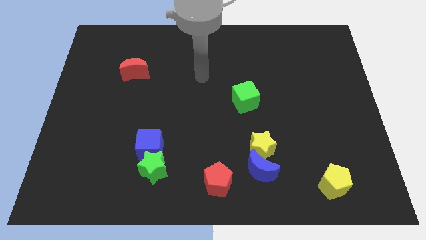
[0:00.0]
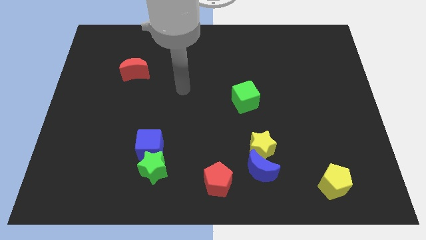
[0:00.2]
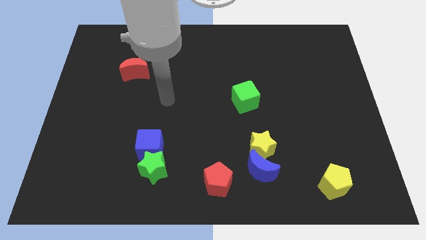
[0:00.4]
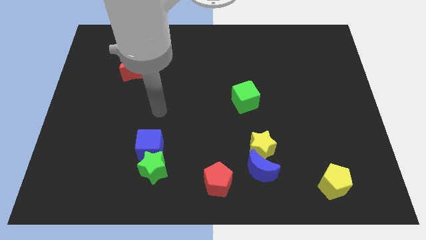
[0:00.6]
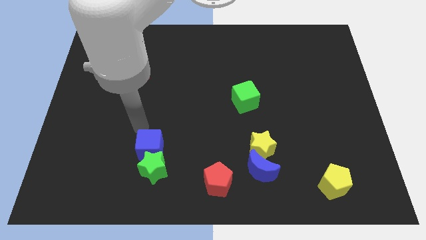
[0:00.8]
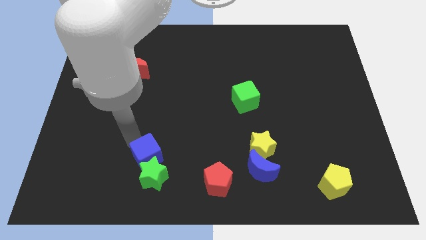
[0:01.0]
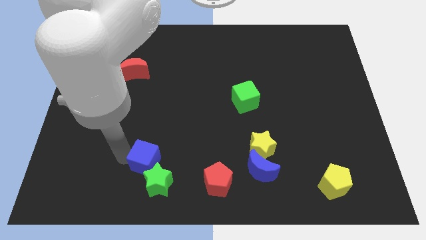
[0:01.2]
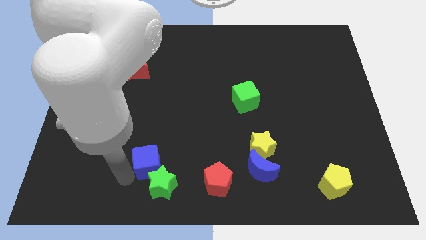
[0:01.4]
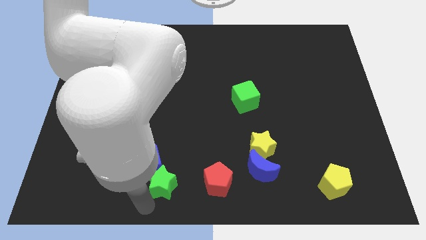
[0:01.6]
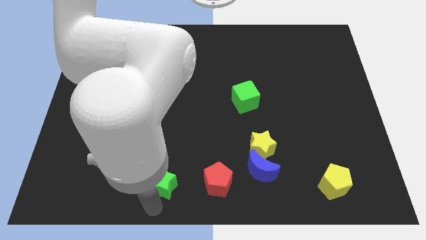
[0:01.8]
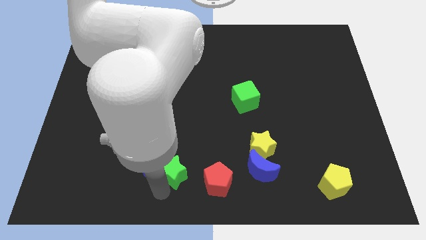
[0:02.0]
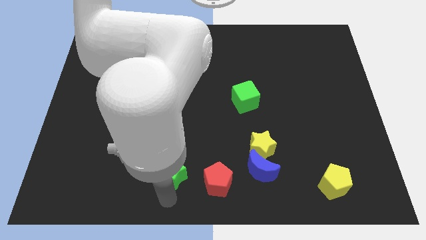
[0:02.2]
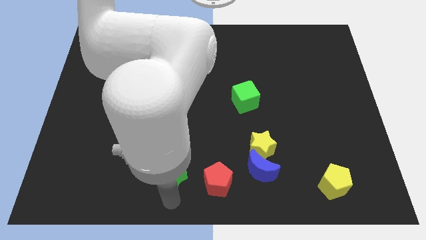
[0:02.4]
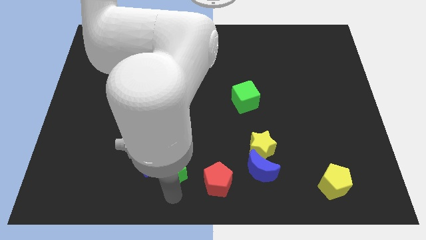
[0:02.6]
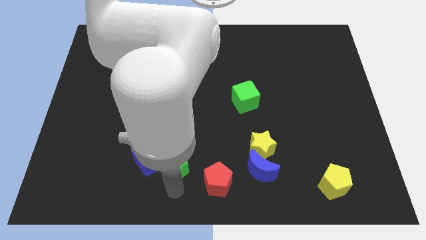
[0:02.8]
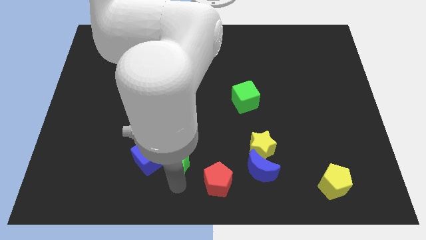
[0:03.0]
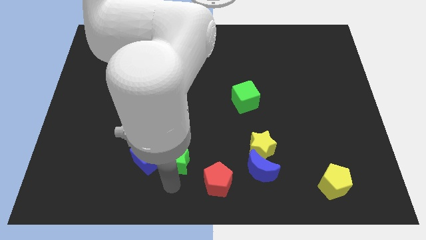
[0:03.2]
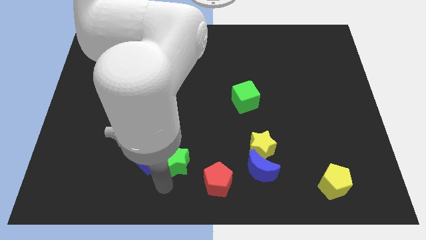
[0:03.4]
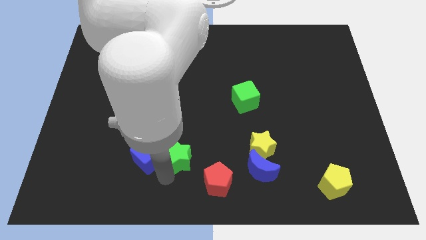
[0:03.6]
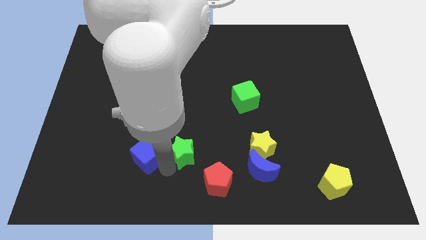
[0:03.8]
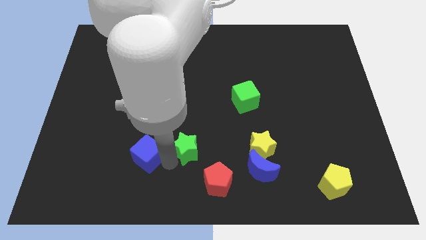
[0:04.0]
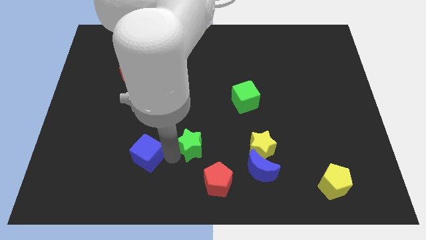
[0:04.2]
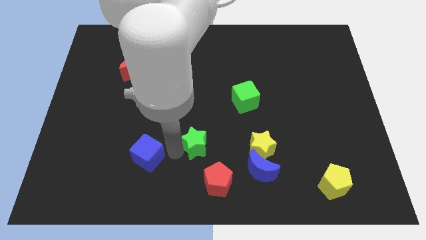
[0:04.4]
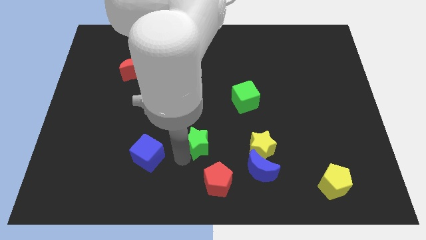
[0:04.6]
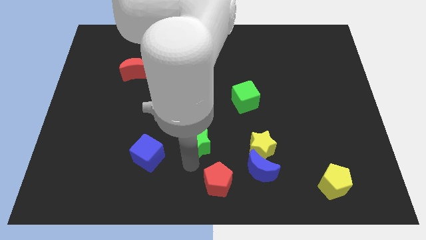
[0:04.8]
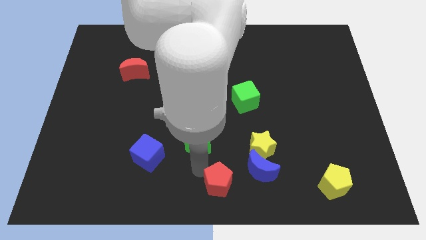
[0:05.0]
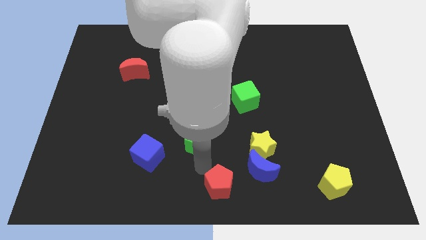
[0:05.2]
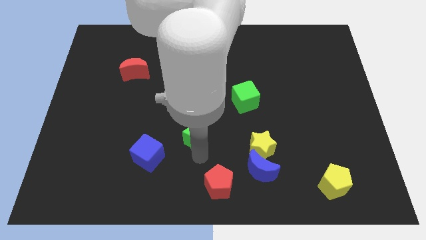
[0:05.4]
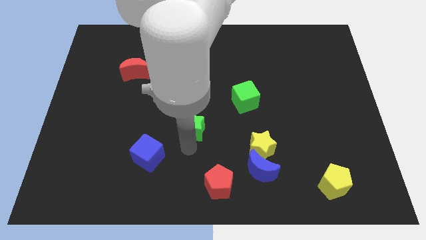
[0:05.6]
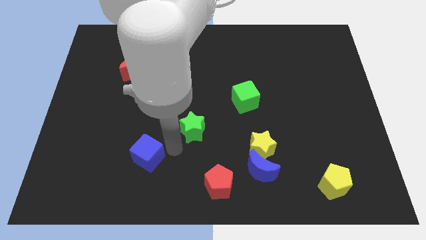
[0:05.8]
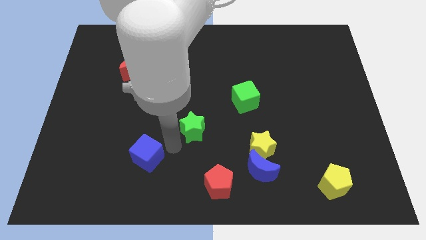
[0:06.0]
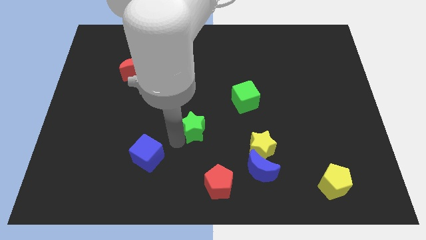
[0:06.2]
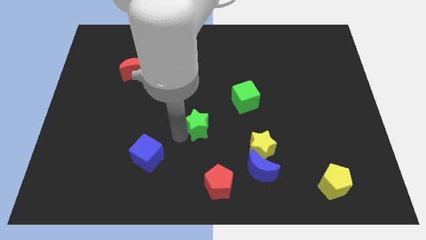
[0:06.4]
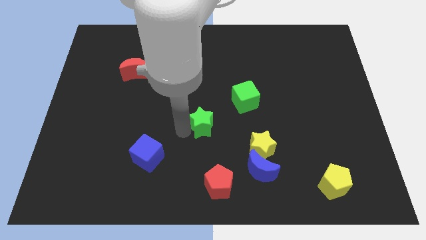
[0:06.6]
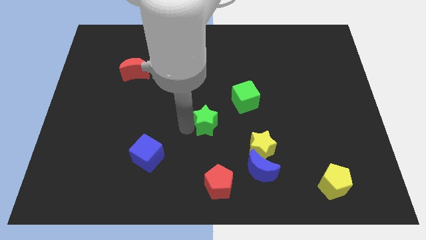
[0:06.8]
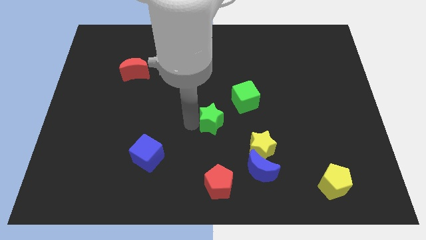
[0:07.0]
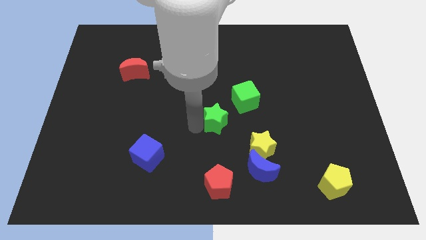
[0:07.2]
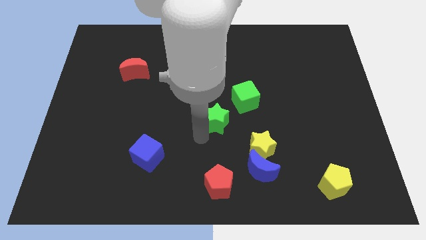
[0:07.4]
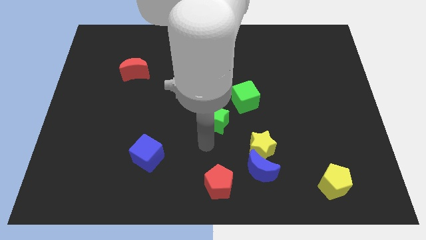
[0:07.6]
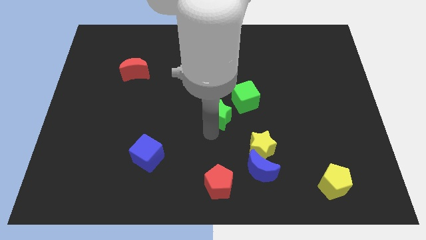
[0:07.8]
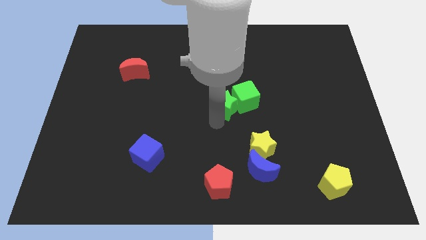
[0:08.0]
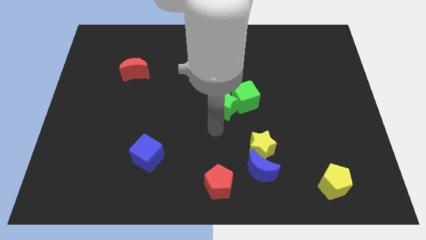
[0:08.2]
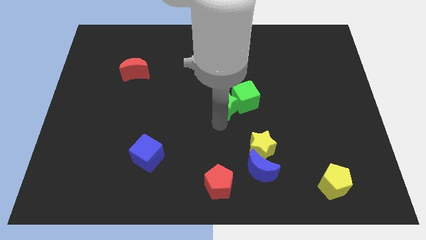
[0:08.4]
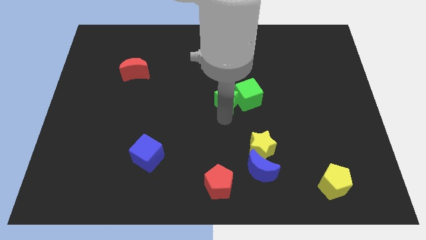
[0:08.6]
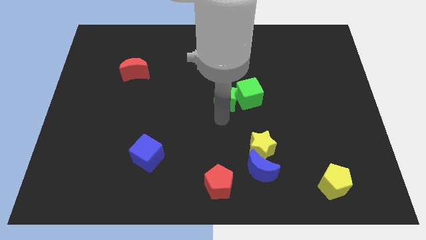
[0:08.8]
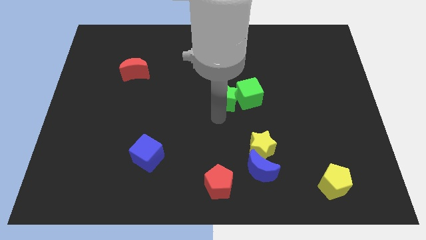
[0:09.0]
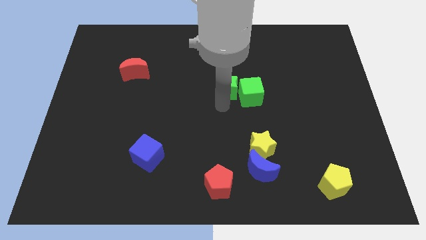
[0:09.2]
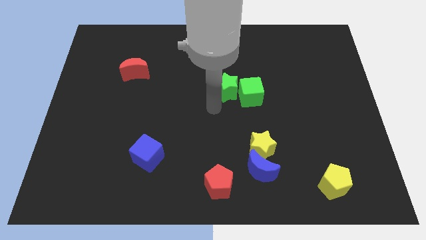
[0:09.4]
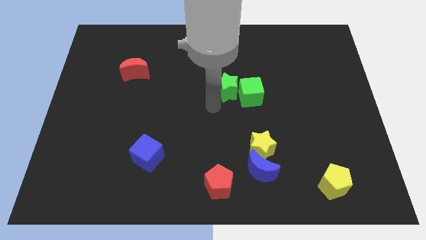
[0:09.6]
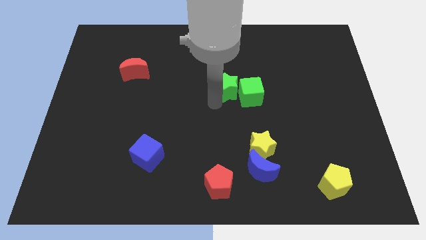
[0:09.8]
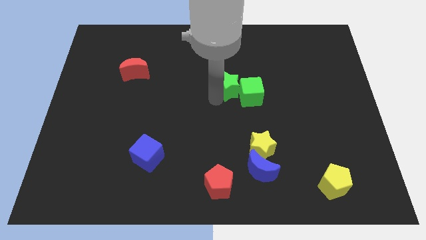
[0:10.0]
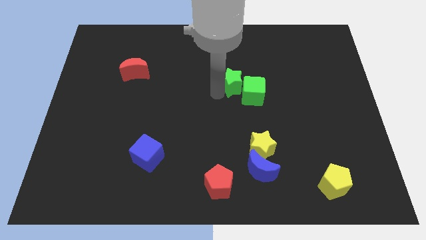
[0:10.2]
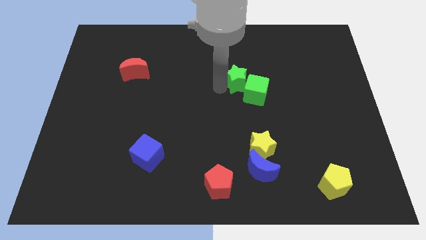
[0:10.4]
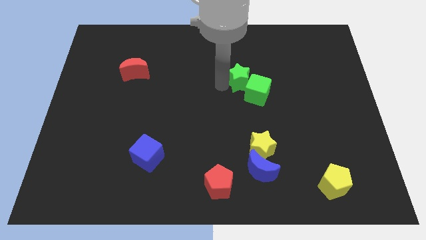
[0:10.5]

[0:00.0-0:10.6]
slide the green star to the top of the green cube

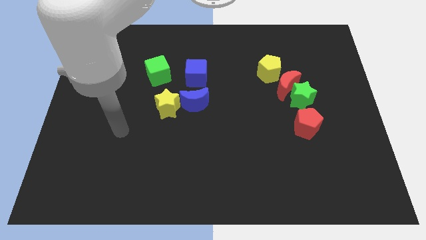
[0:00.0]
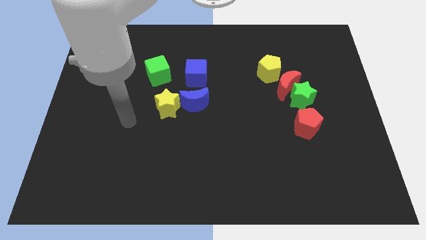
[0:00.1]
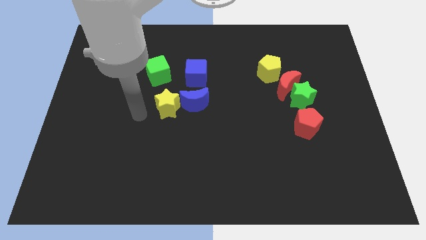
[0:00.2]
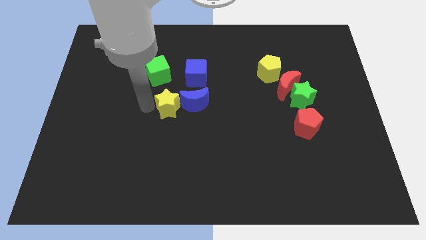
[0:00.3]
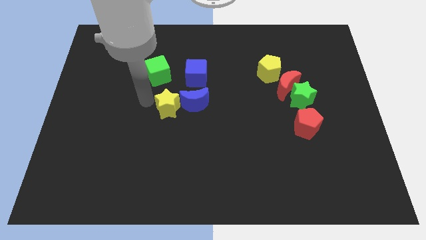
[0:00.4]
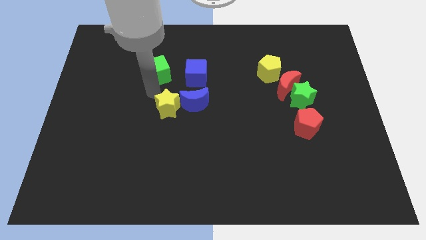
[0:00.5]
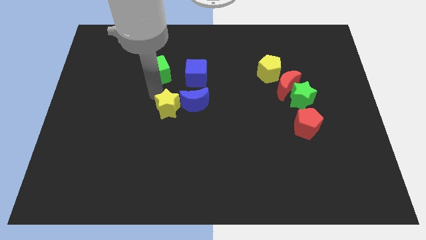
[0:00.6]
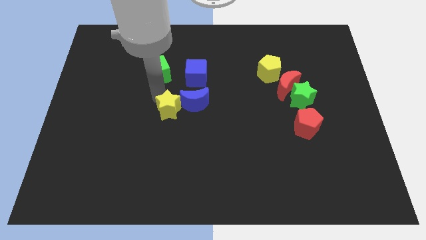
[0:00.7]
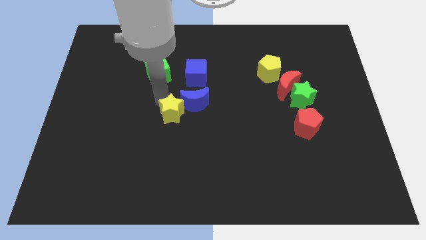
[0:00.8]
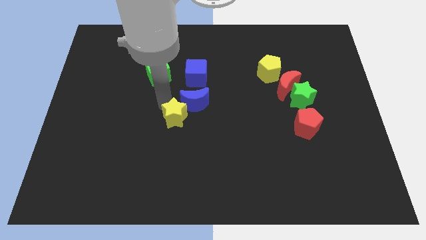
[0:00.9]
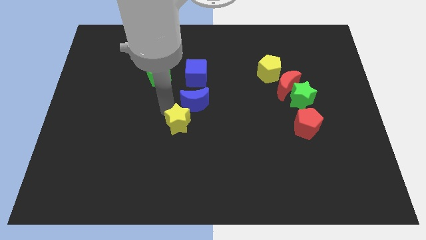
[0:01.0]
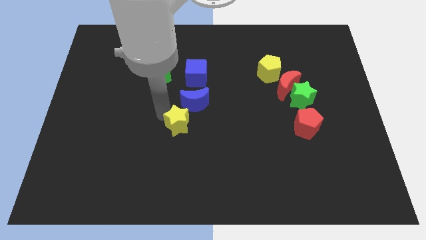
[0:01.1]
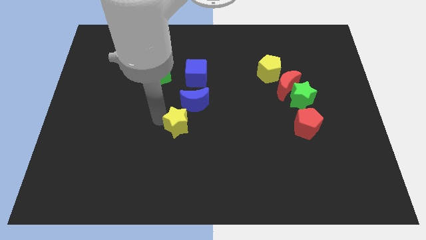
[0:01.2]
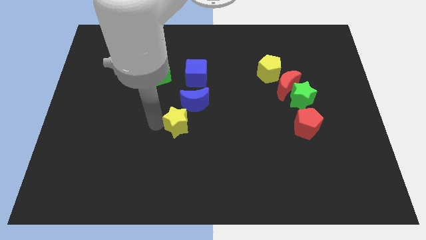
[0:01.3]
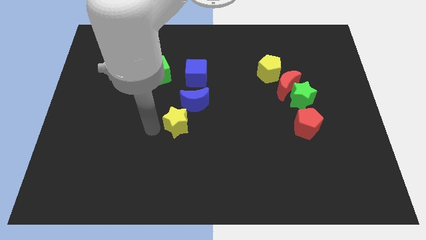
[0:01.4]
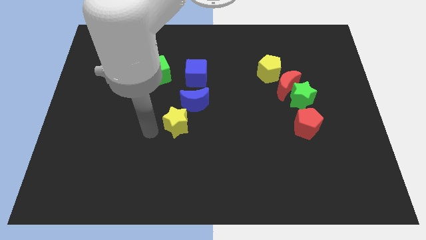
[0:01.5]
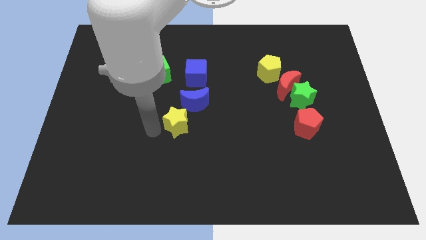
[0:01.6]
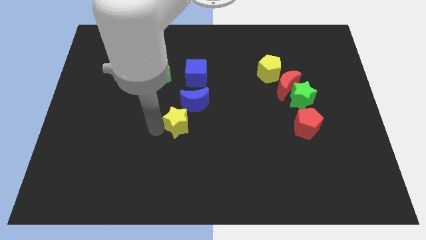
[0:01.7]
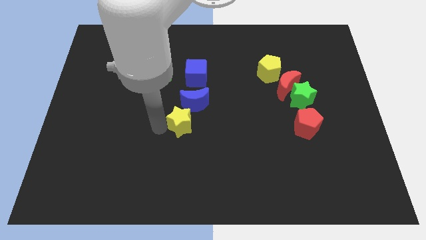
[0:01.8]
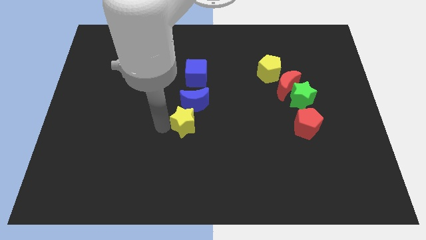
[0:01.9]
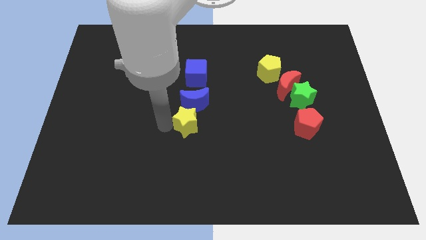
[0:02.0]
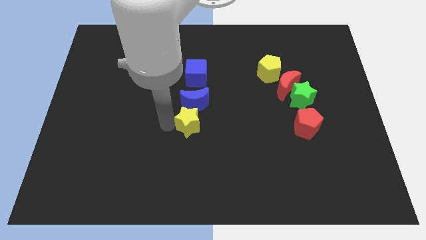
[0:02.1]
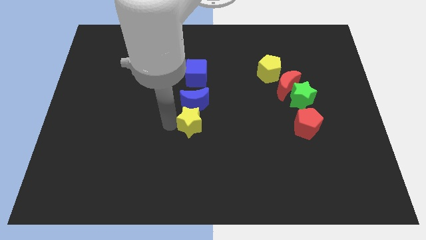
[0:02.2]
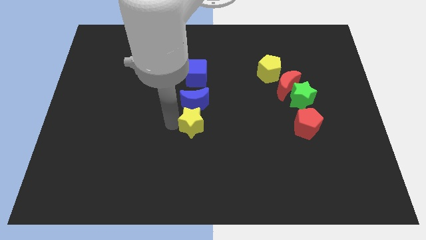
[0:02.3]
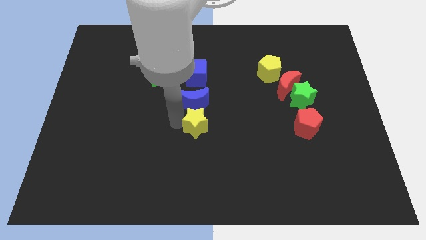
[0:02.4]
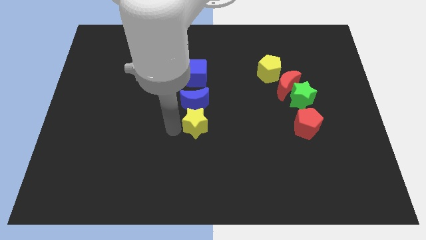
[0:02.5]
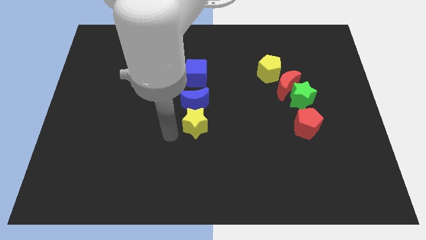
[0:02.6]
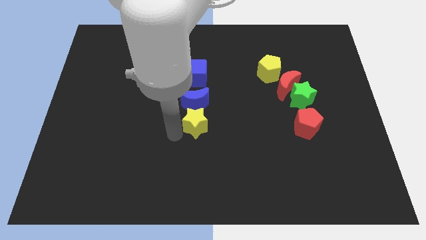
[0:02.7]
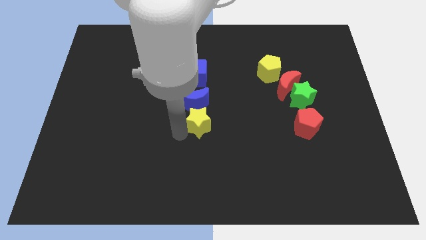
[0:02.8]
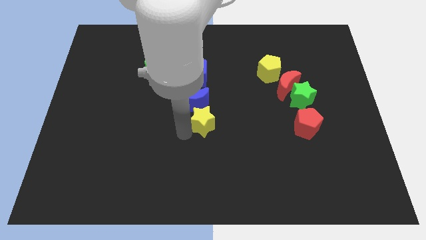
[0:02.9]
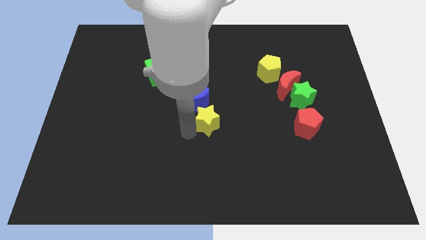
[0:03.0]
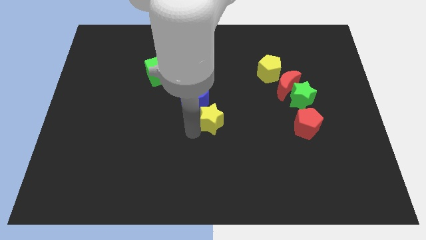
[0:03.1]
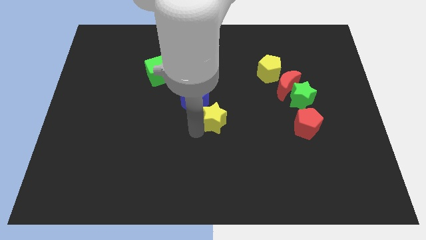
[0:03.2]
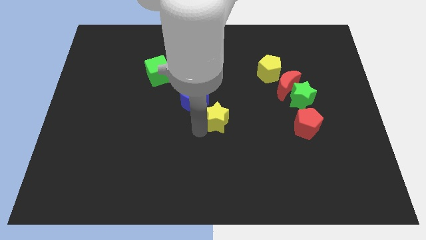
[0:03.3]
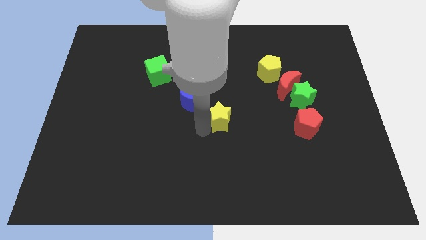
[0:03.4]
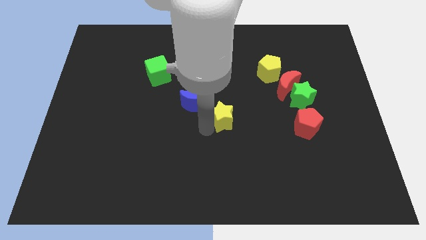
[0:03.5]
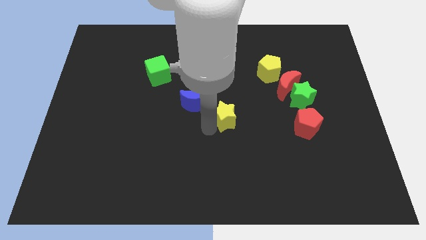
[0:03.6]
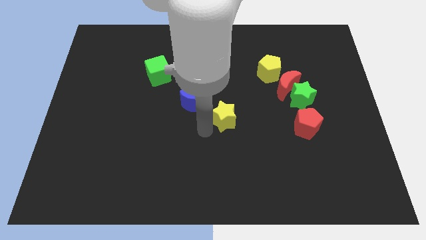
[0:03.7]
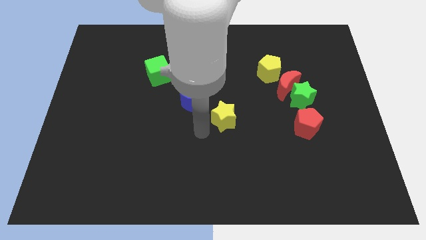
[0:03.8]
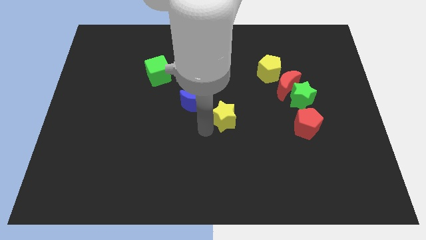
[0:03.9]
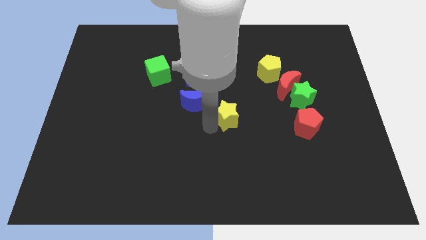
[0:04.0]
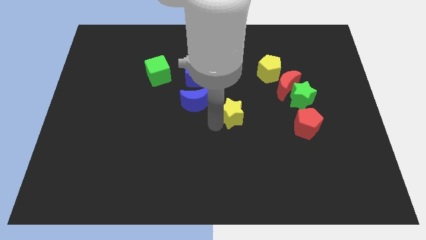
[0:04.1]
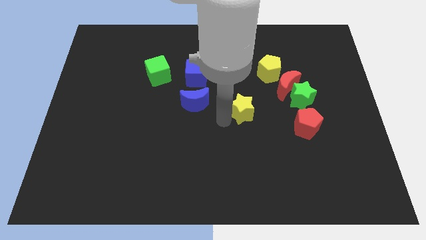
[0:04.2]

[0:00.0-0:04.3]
push the yellow star to the left of the green star
